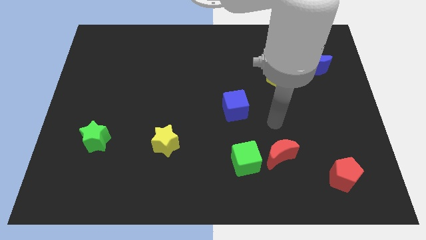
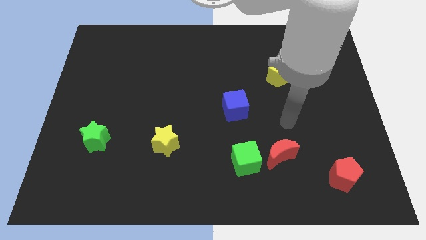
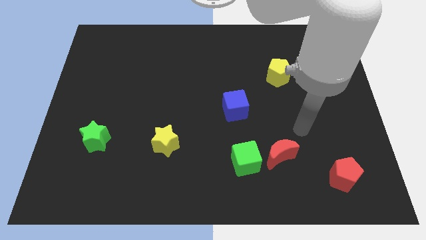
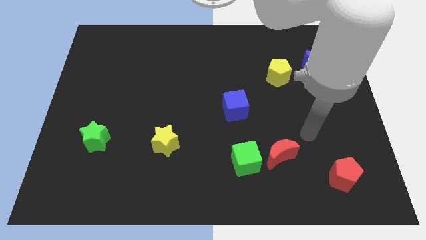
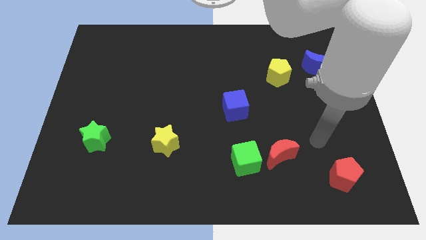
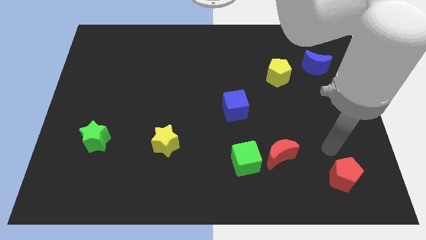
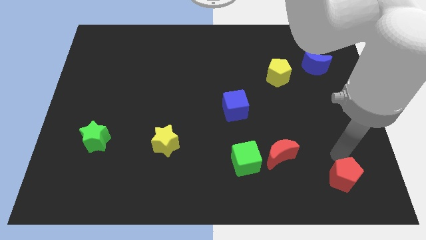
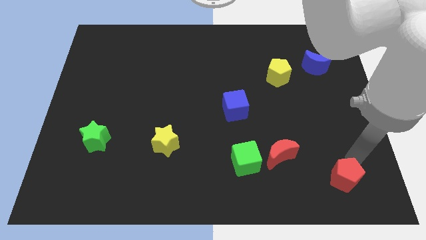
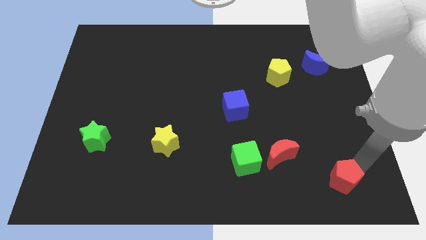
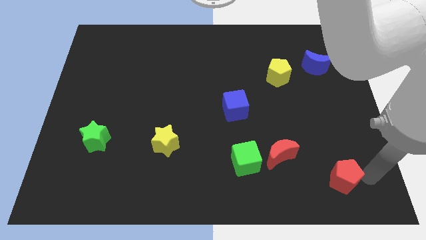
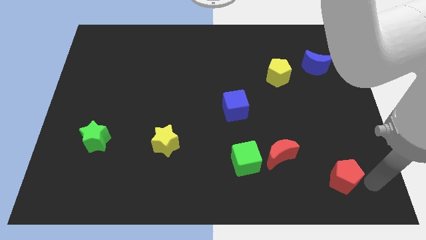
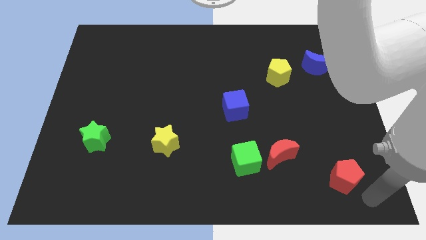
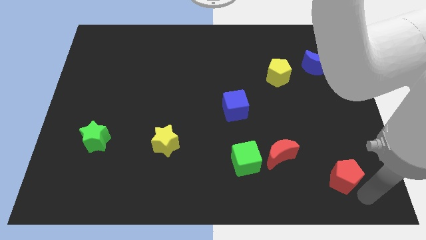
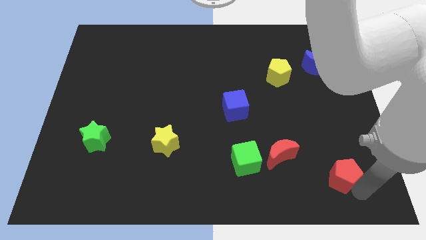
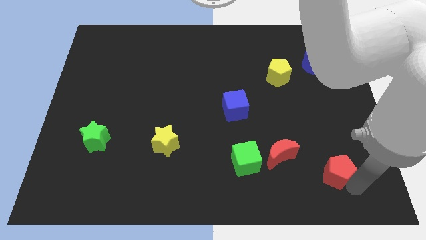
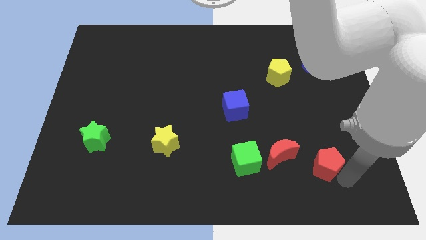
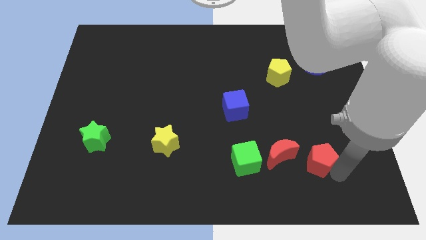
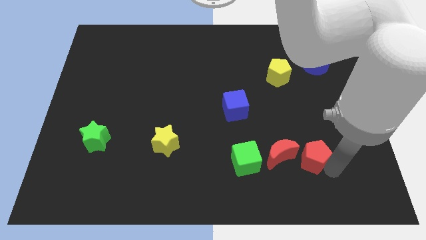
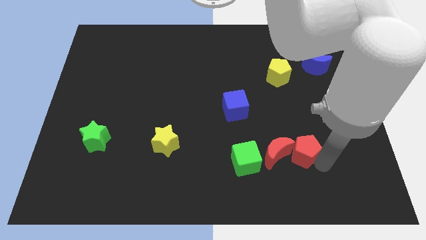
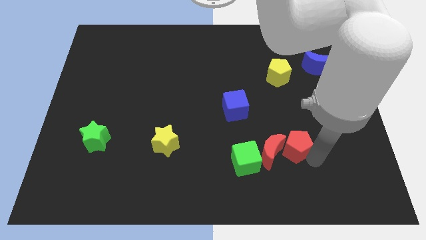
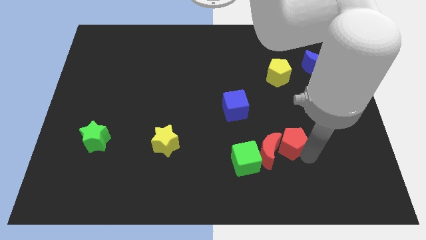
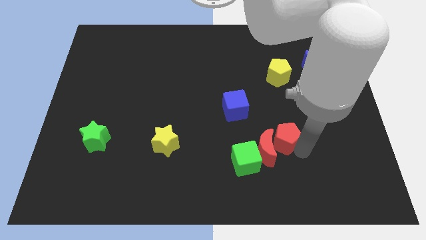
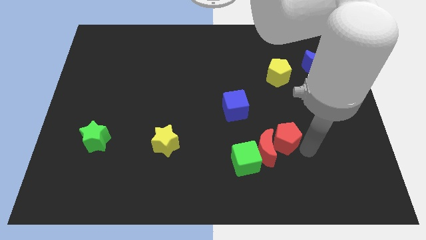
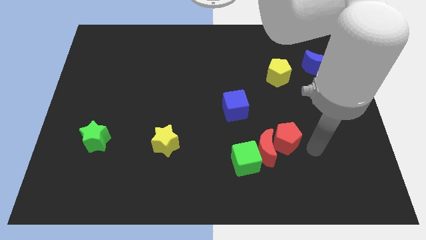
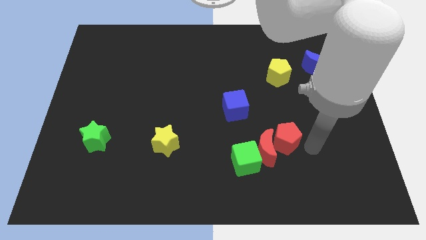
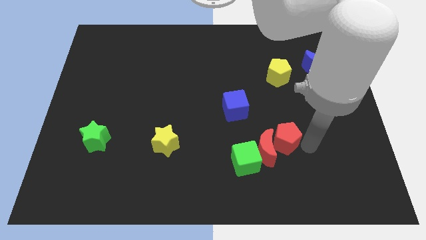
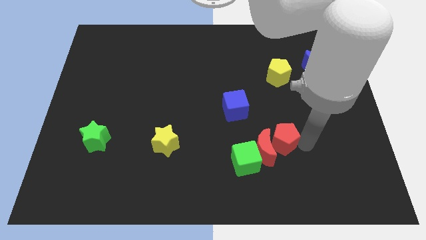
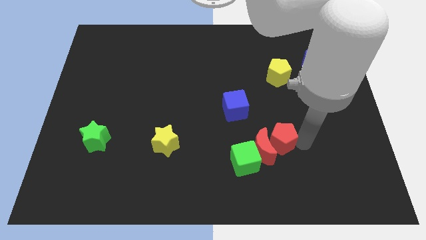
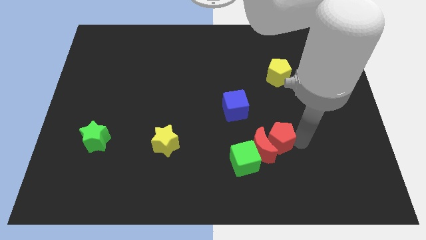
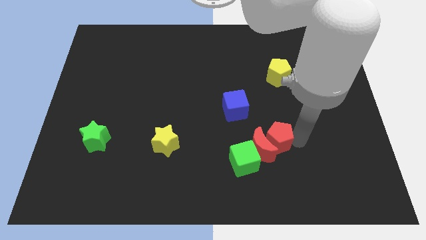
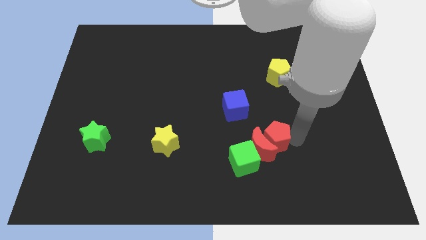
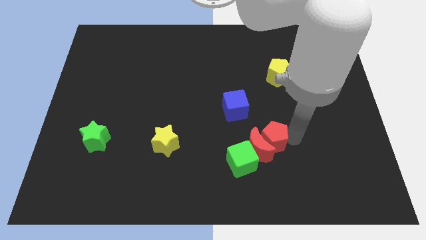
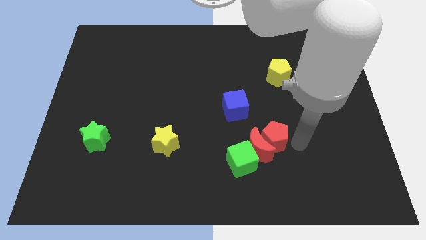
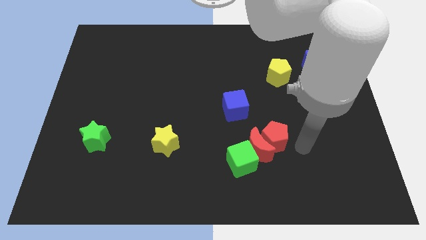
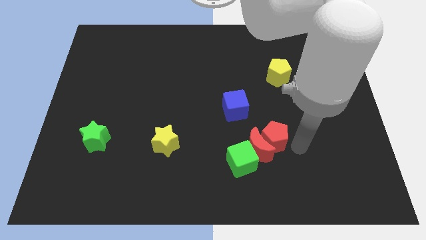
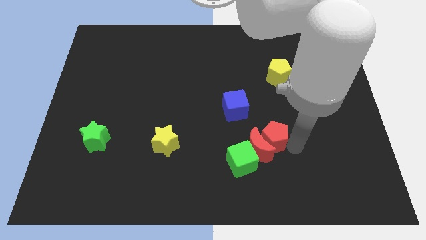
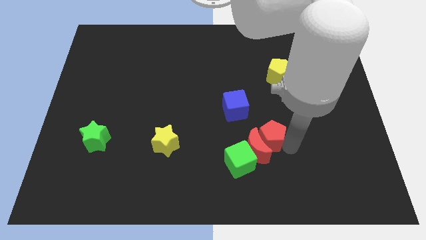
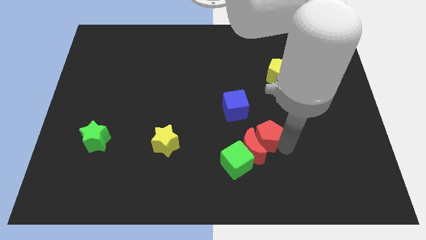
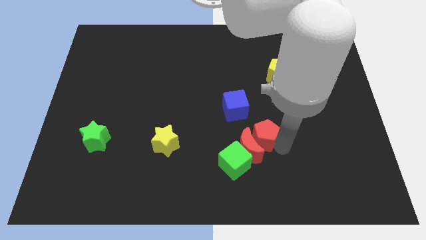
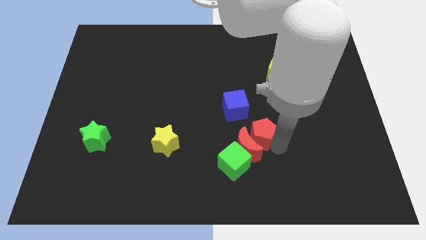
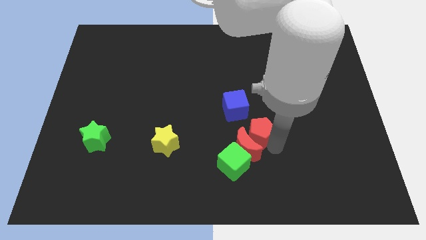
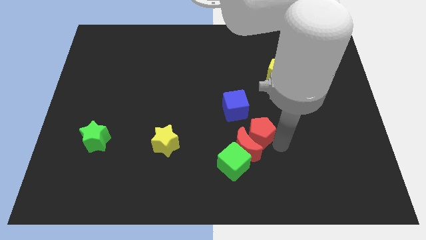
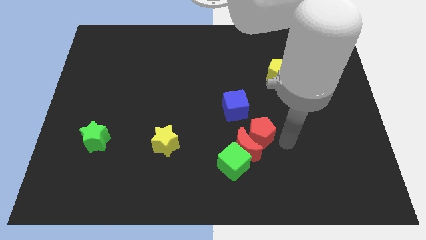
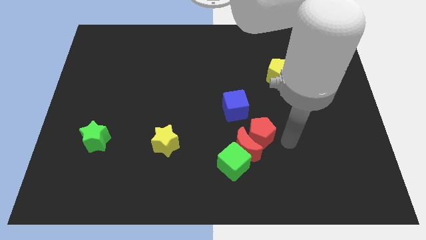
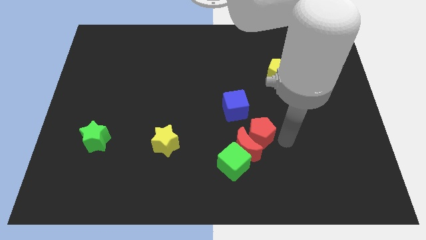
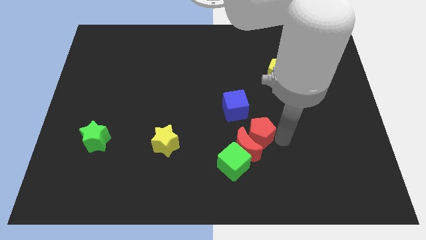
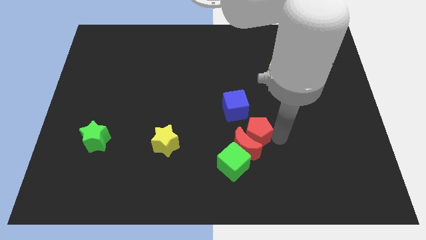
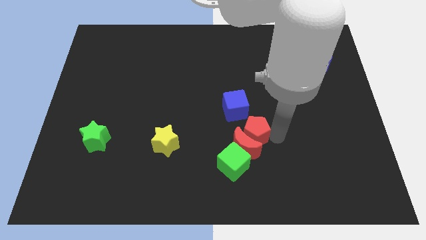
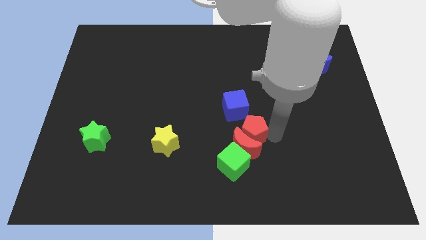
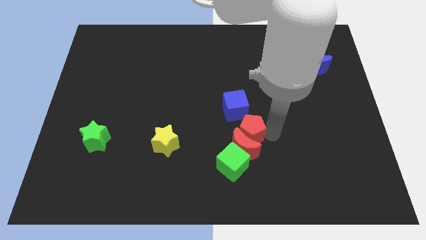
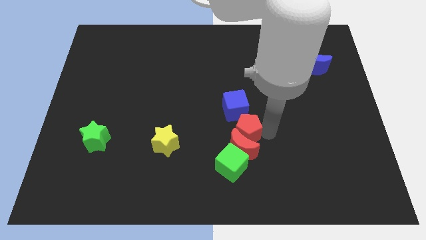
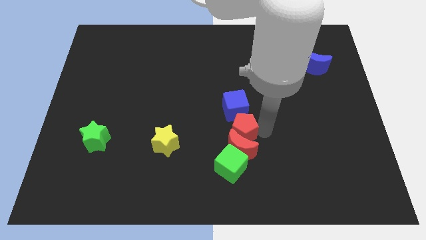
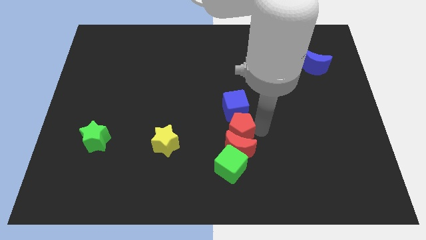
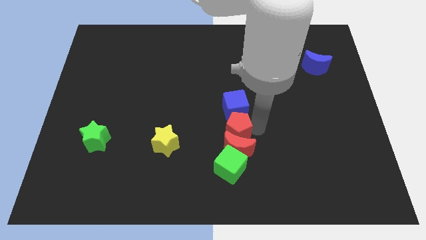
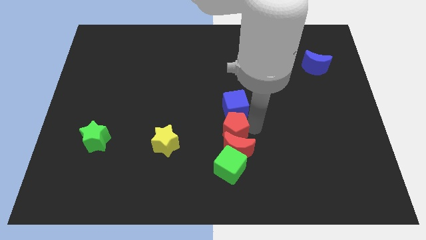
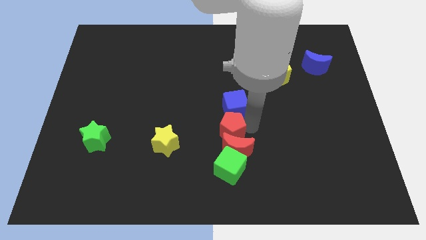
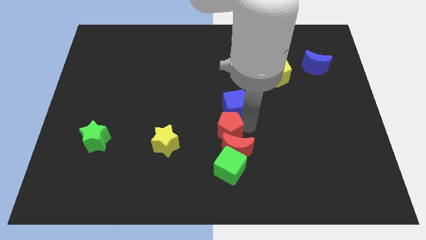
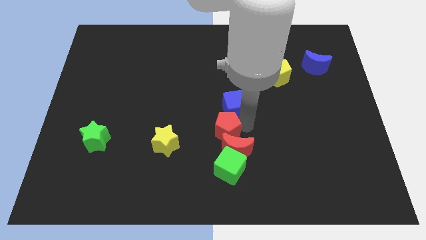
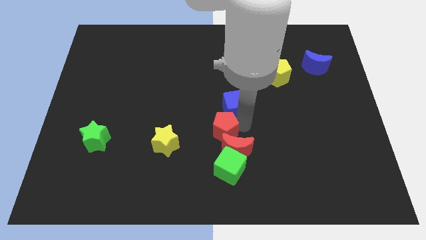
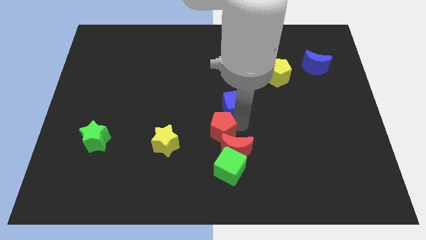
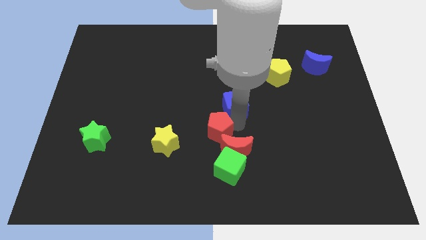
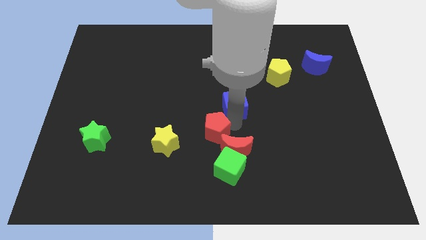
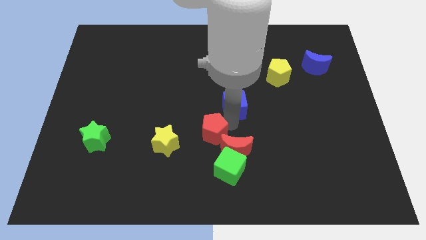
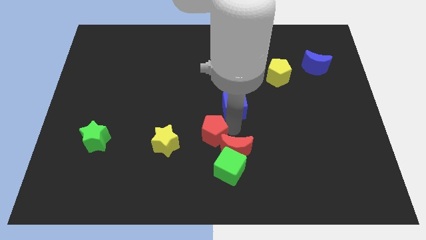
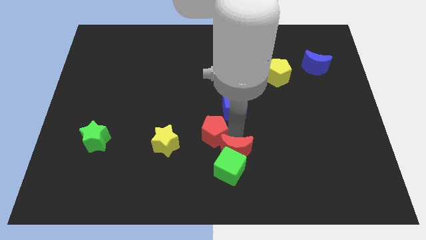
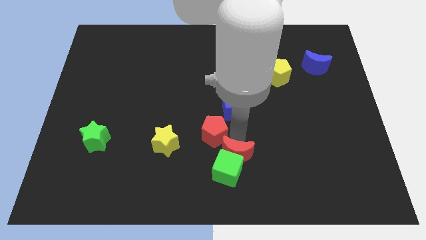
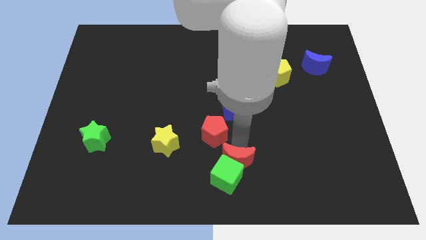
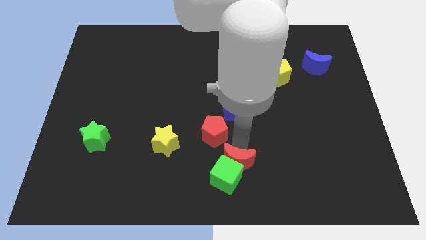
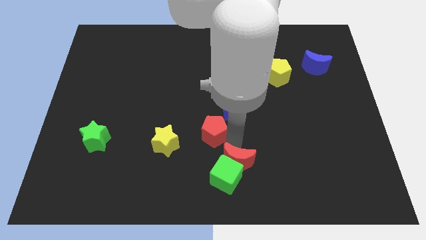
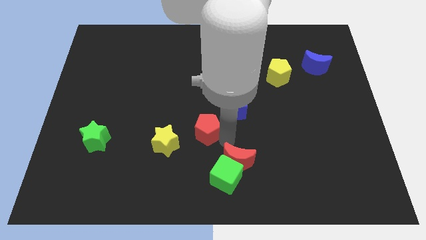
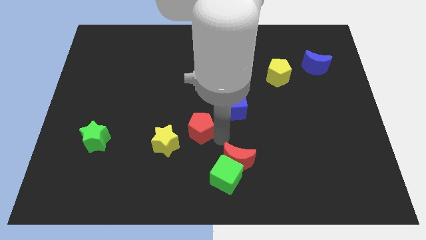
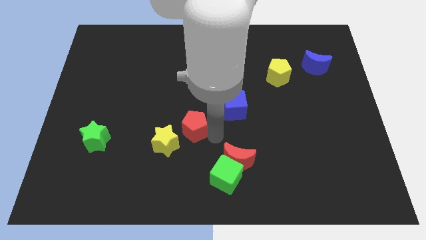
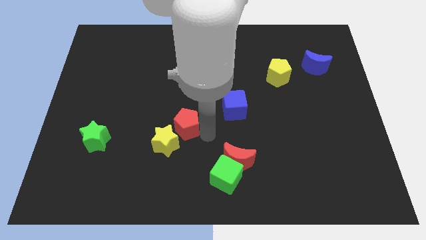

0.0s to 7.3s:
slide the red pentagon to the top of the yellow star
